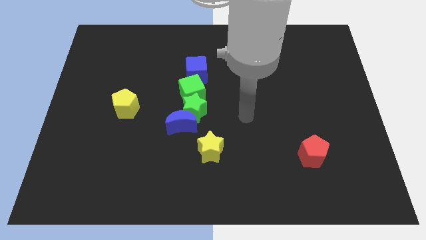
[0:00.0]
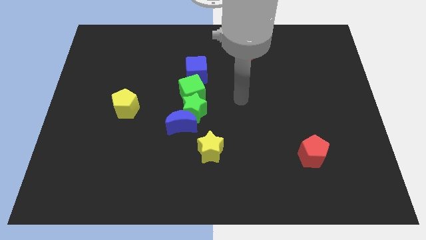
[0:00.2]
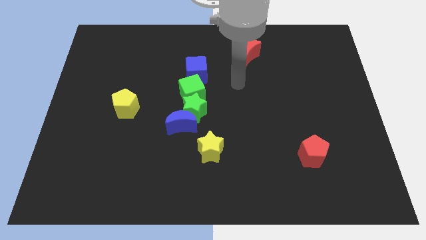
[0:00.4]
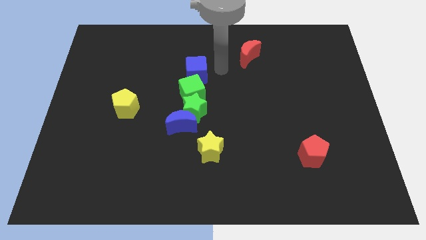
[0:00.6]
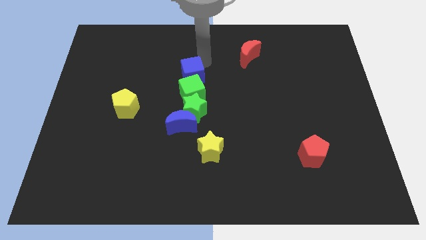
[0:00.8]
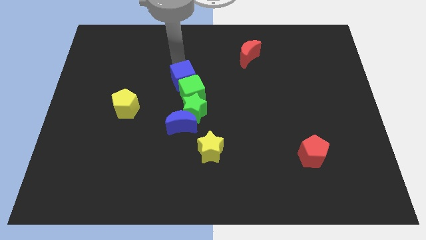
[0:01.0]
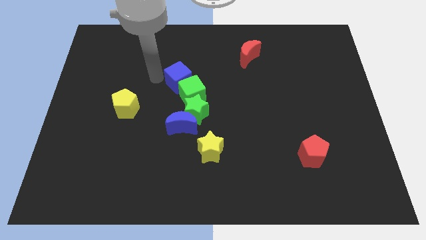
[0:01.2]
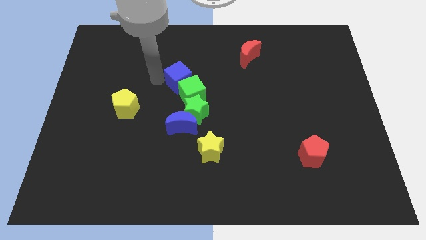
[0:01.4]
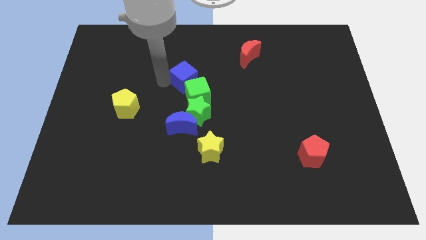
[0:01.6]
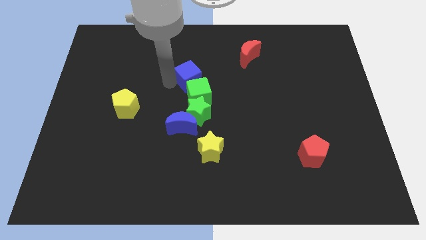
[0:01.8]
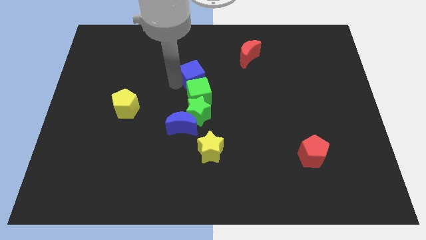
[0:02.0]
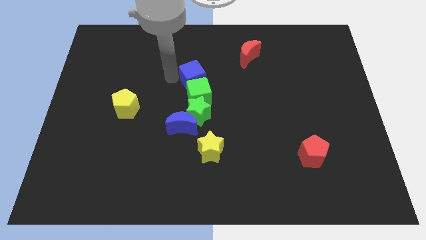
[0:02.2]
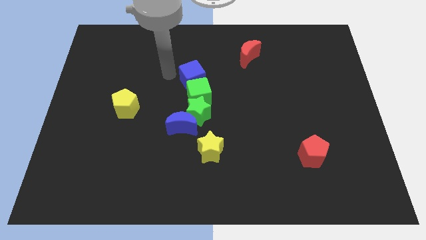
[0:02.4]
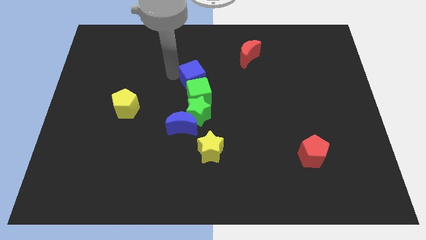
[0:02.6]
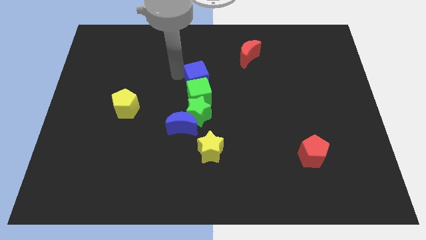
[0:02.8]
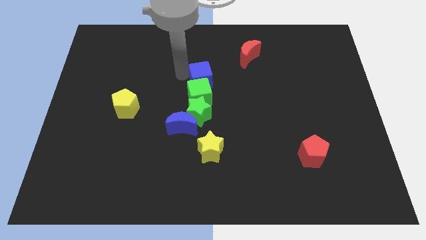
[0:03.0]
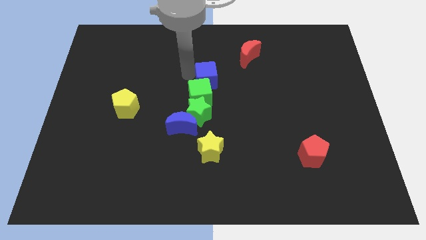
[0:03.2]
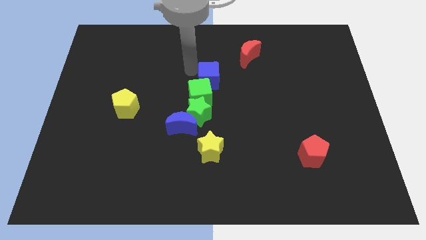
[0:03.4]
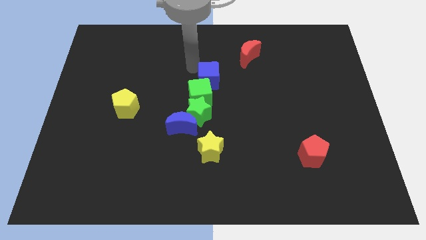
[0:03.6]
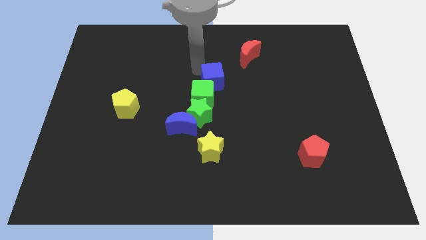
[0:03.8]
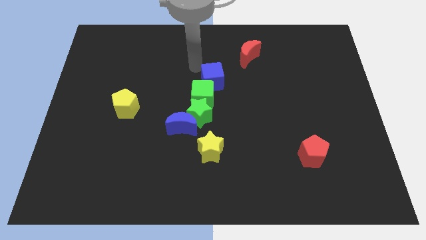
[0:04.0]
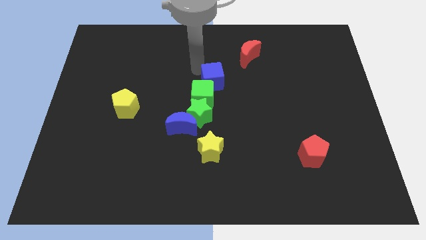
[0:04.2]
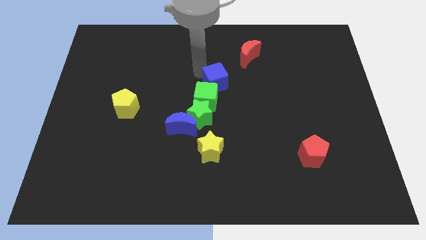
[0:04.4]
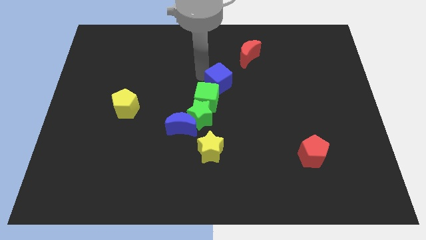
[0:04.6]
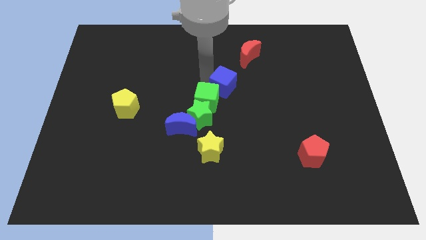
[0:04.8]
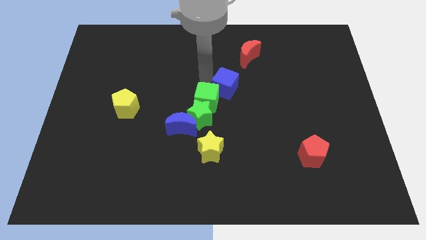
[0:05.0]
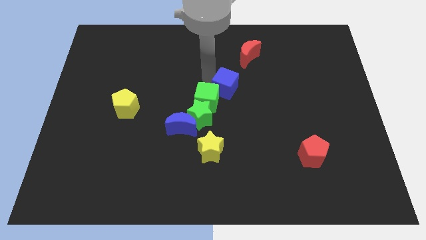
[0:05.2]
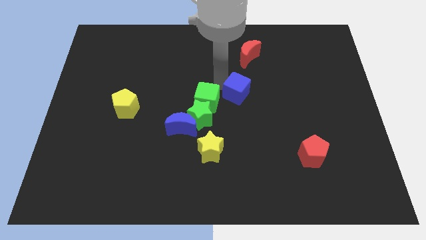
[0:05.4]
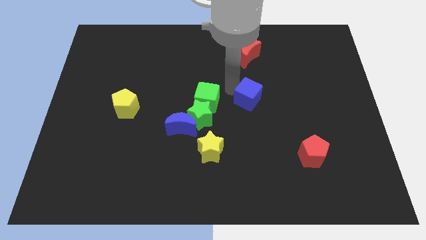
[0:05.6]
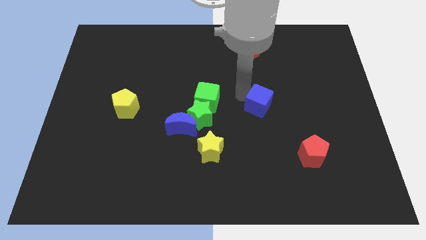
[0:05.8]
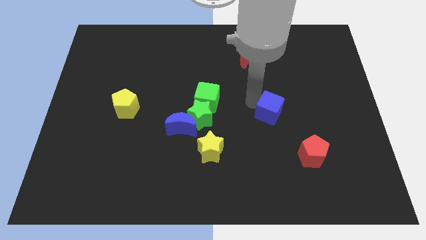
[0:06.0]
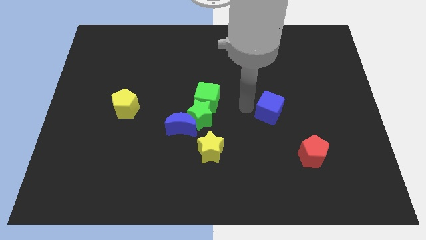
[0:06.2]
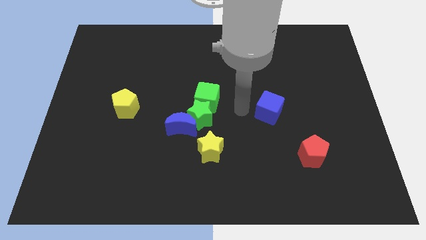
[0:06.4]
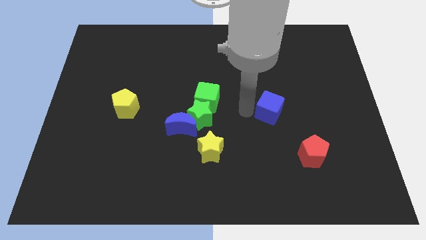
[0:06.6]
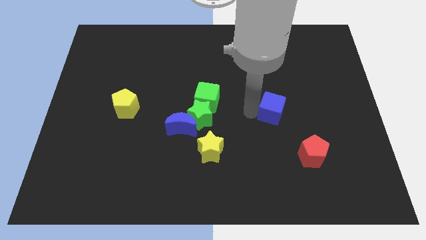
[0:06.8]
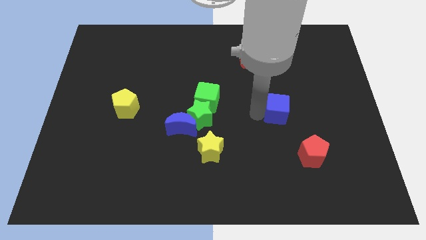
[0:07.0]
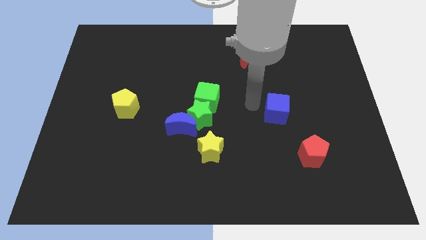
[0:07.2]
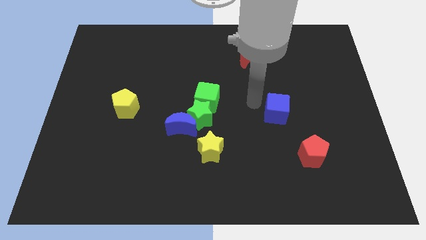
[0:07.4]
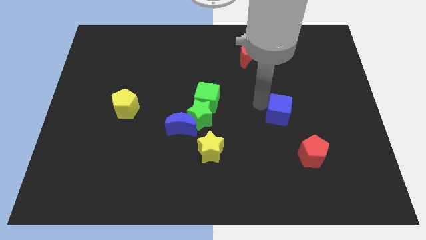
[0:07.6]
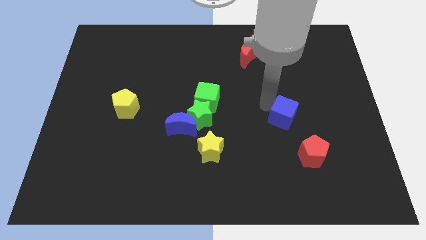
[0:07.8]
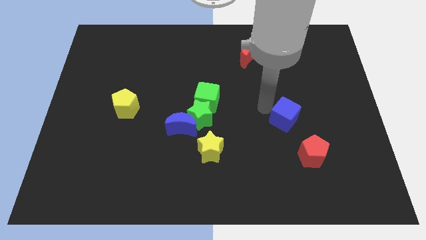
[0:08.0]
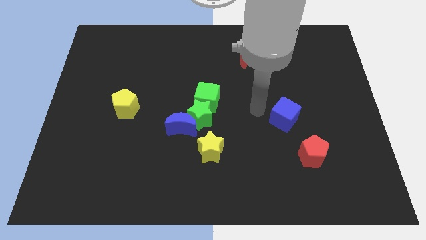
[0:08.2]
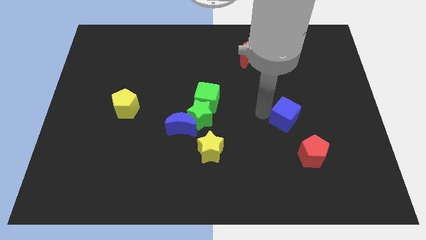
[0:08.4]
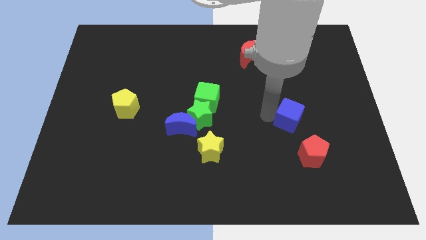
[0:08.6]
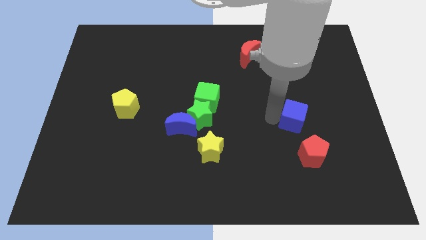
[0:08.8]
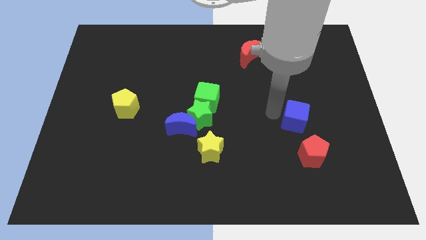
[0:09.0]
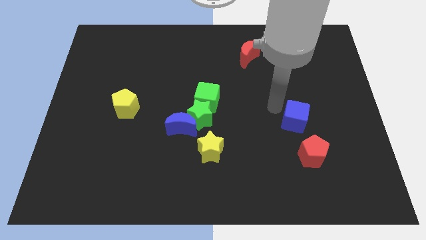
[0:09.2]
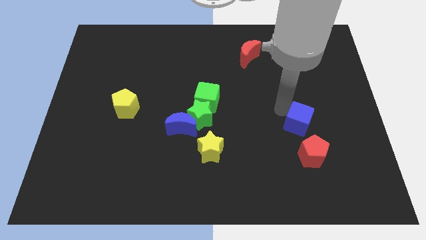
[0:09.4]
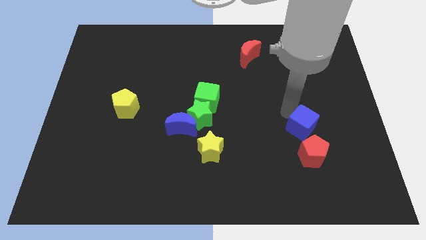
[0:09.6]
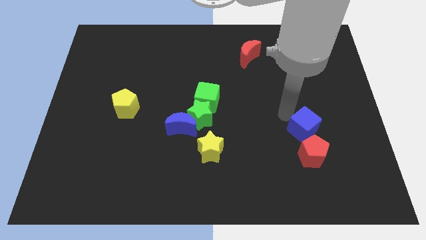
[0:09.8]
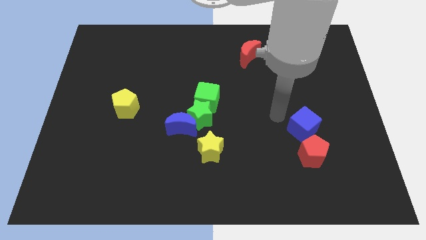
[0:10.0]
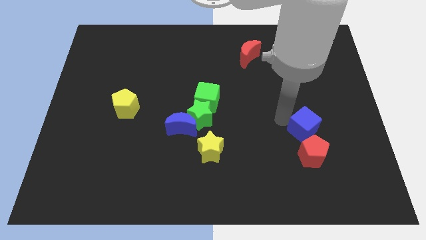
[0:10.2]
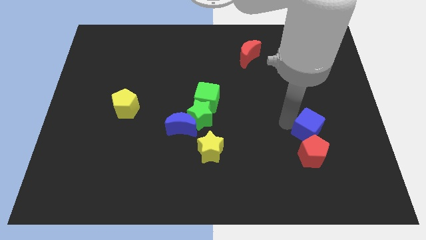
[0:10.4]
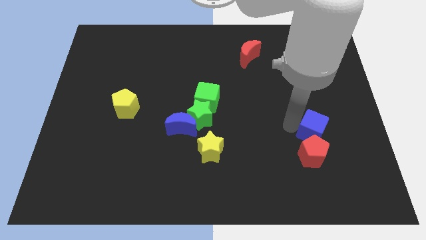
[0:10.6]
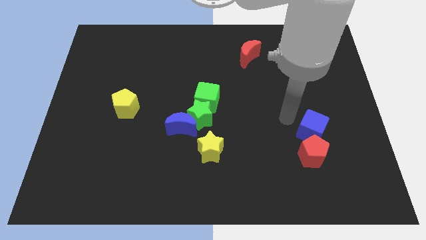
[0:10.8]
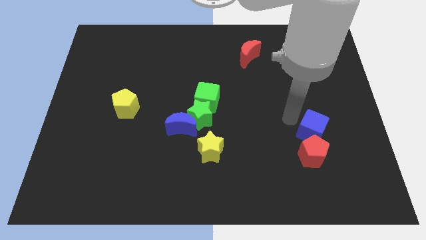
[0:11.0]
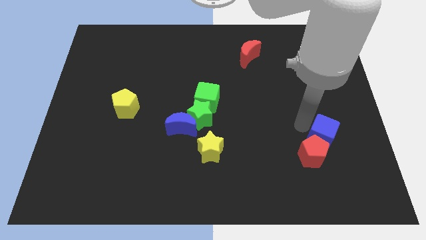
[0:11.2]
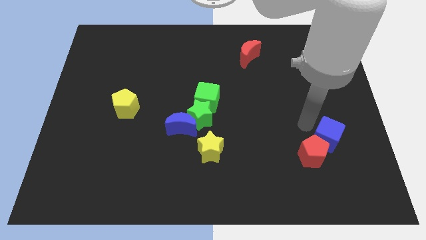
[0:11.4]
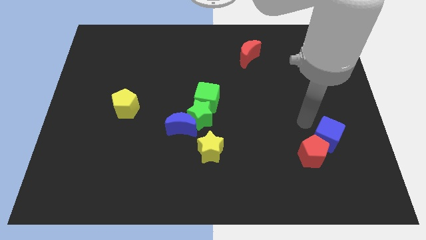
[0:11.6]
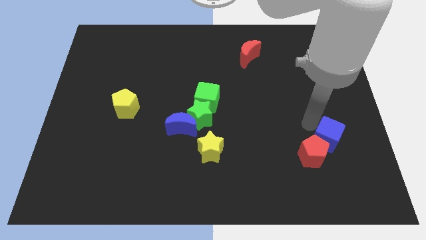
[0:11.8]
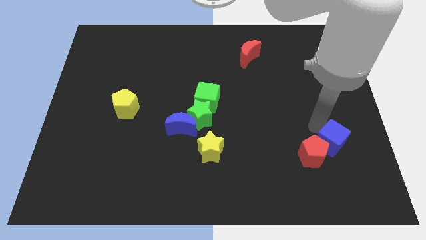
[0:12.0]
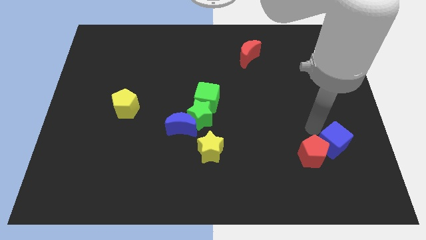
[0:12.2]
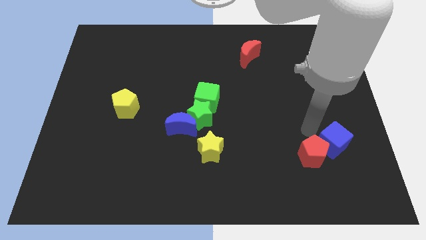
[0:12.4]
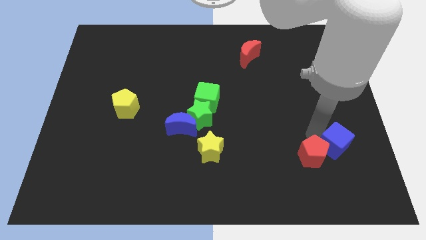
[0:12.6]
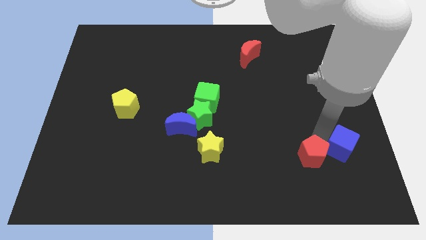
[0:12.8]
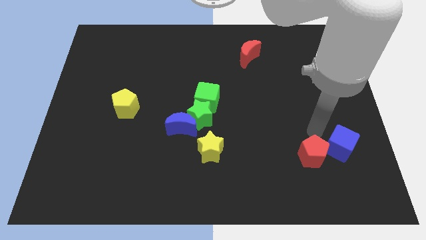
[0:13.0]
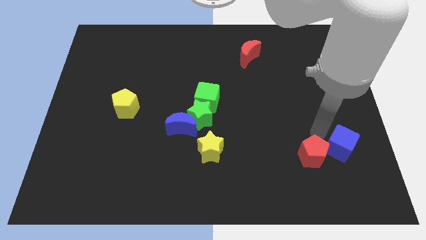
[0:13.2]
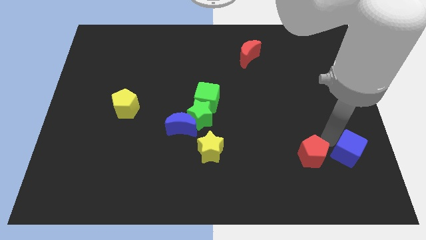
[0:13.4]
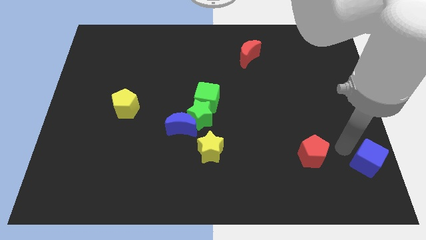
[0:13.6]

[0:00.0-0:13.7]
put the blue cube to the bottom right corner
